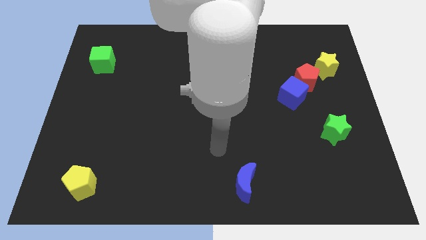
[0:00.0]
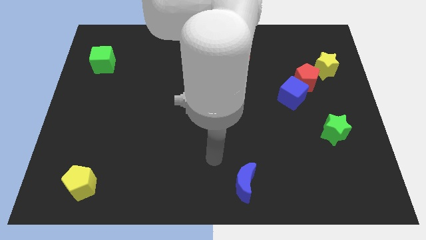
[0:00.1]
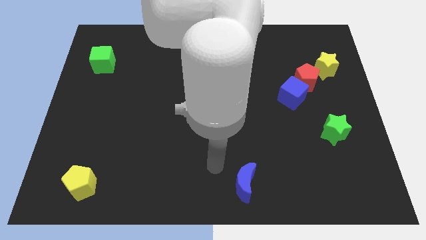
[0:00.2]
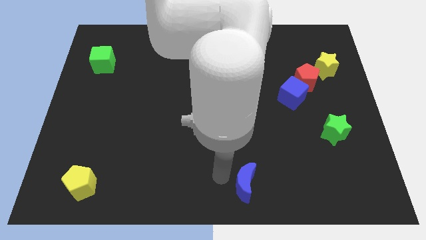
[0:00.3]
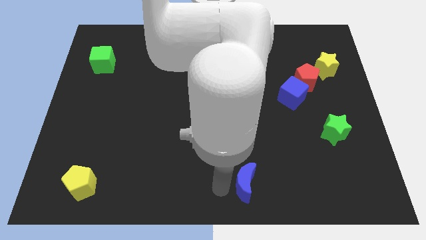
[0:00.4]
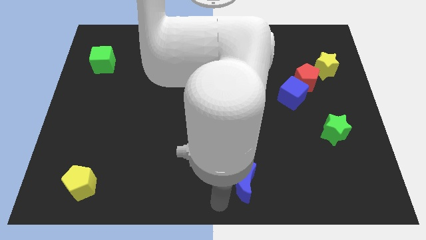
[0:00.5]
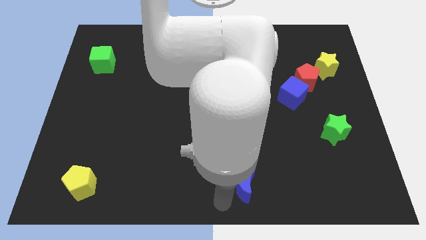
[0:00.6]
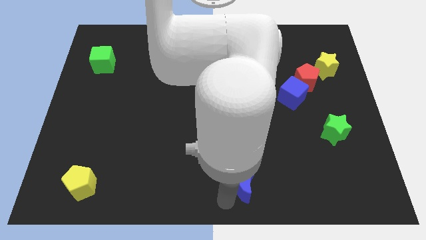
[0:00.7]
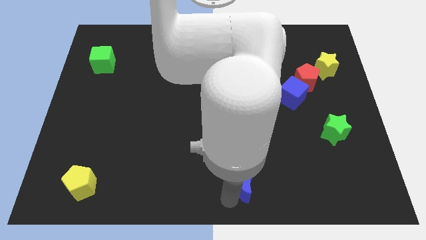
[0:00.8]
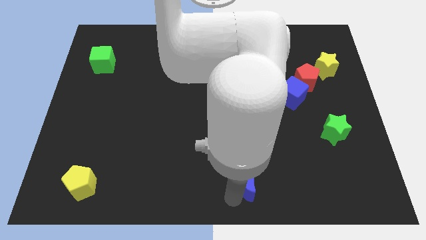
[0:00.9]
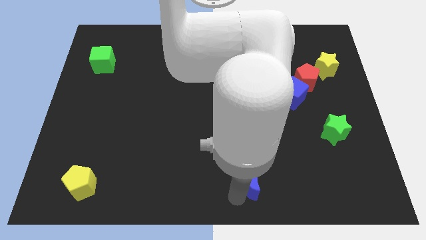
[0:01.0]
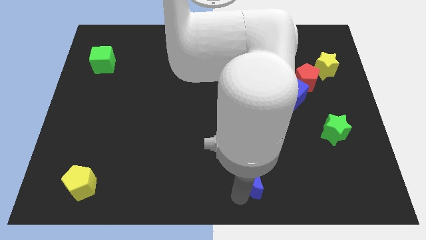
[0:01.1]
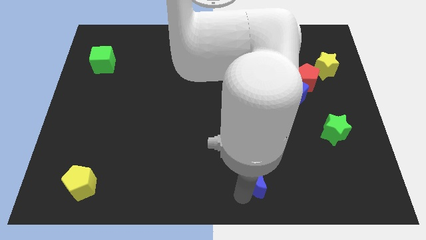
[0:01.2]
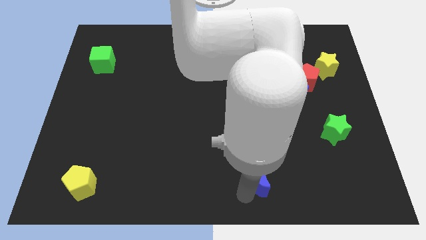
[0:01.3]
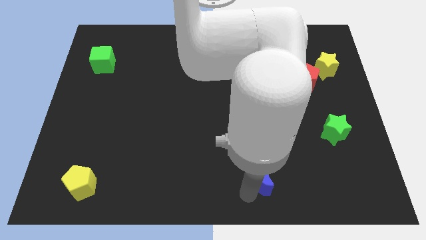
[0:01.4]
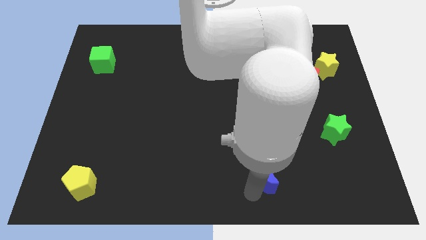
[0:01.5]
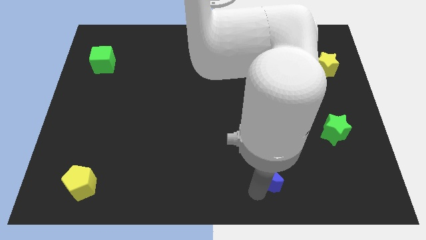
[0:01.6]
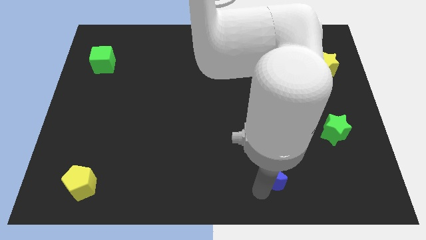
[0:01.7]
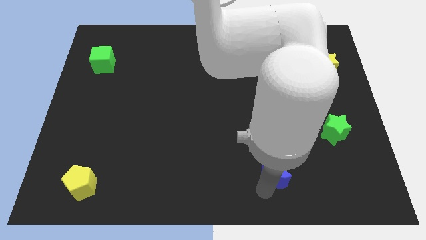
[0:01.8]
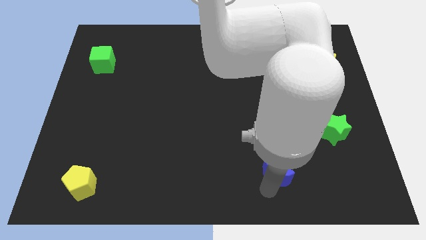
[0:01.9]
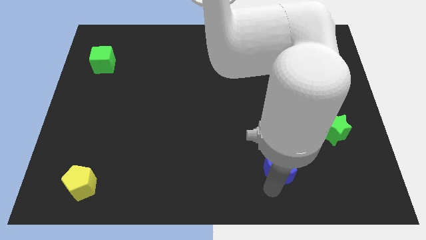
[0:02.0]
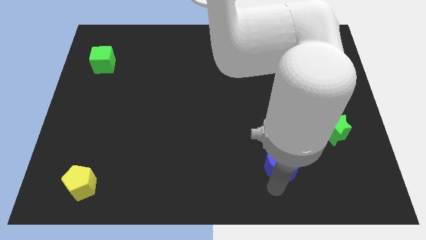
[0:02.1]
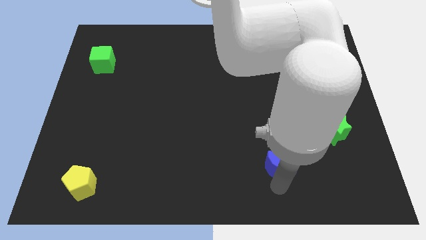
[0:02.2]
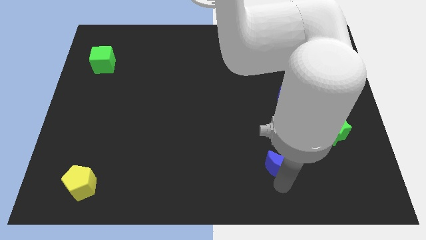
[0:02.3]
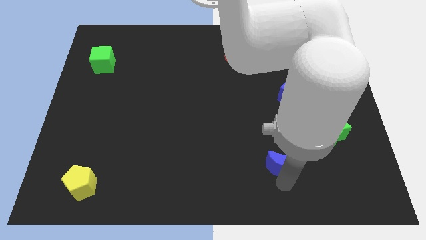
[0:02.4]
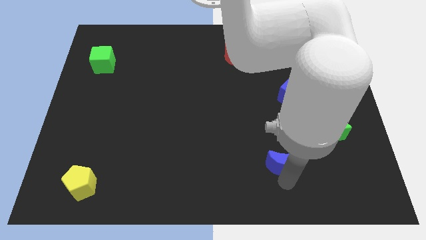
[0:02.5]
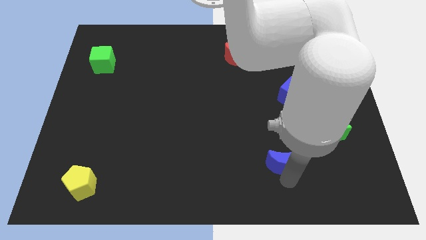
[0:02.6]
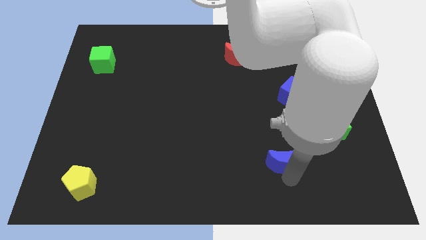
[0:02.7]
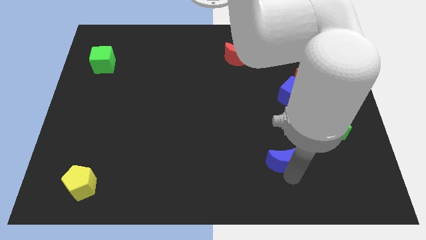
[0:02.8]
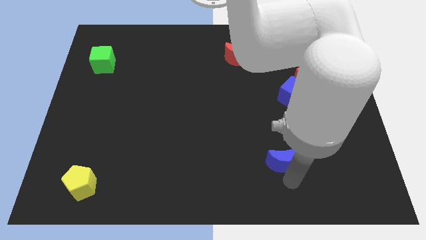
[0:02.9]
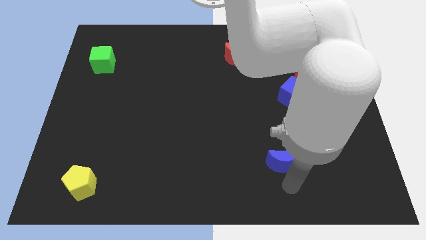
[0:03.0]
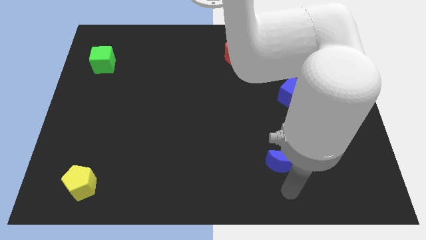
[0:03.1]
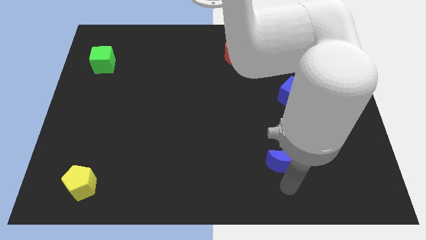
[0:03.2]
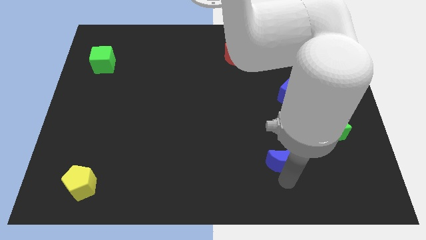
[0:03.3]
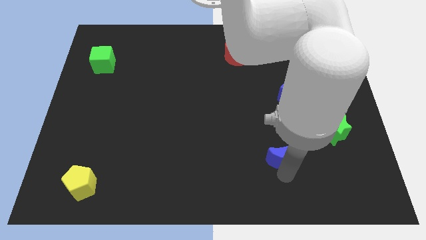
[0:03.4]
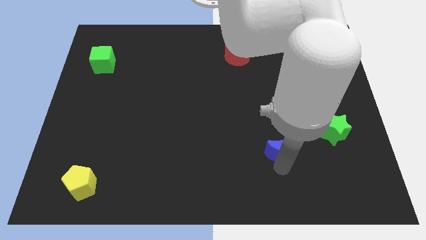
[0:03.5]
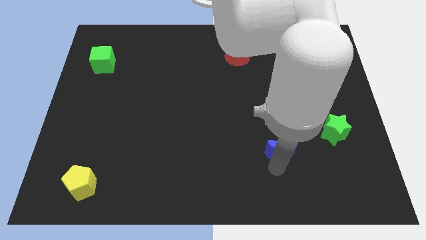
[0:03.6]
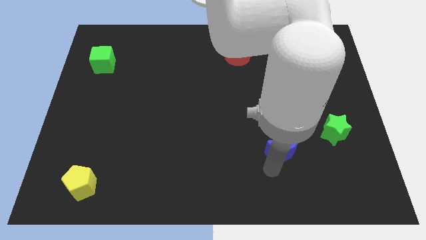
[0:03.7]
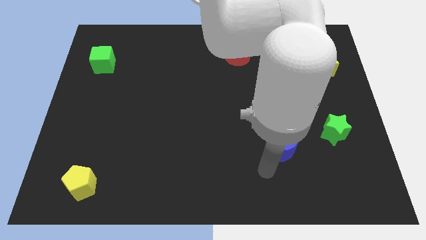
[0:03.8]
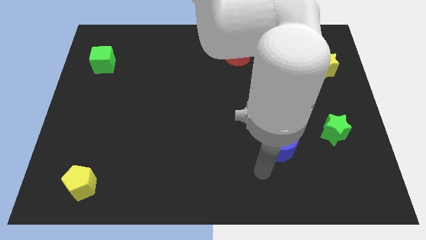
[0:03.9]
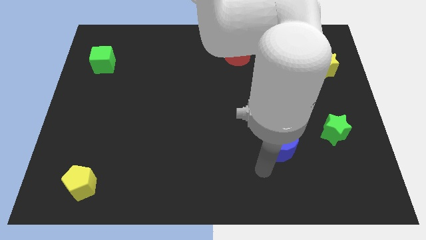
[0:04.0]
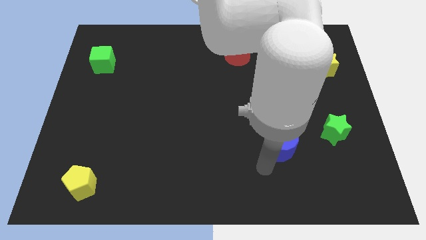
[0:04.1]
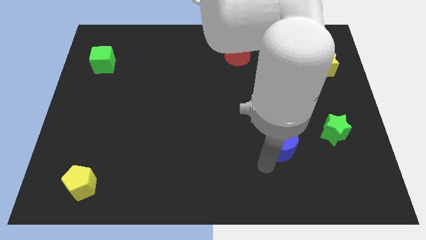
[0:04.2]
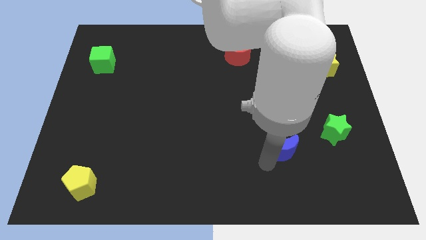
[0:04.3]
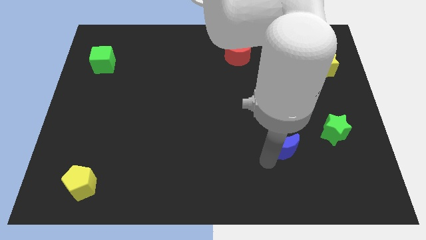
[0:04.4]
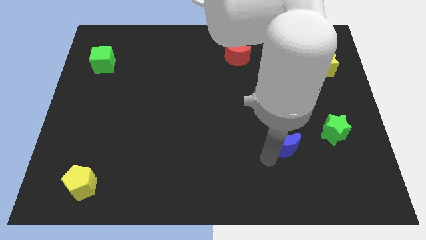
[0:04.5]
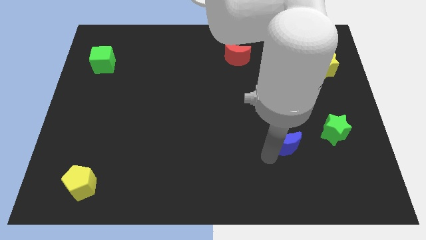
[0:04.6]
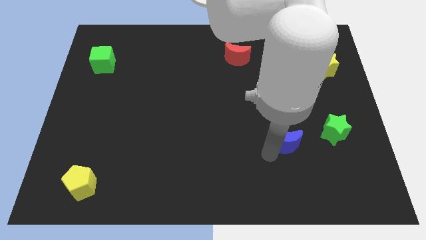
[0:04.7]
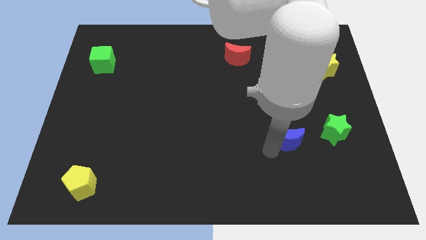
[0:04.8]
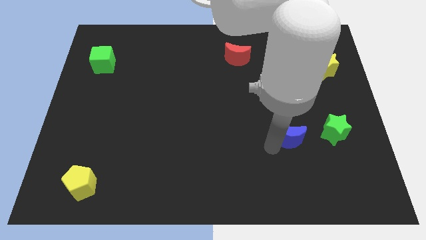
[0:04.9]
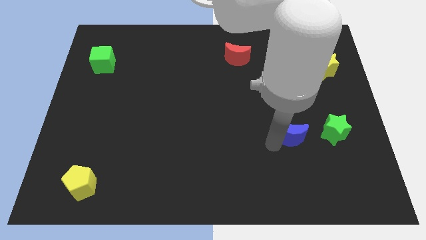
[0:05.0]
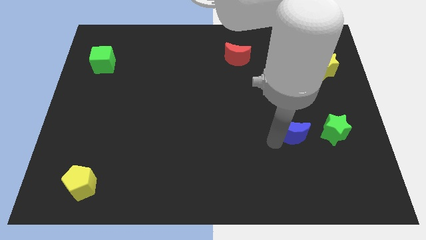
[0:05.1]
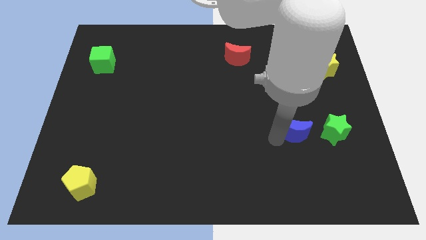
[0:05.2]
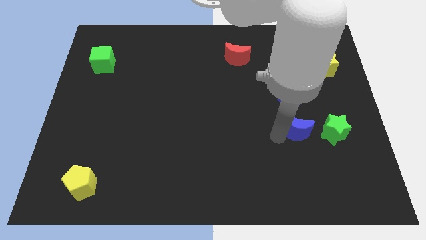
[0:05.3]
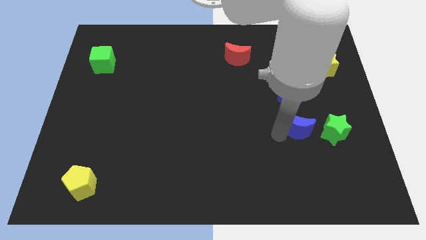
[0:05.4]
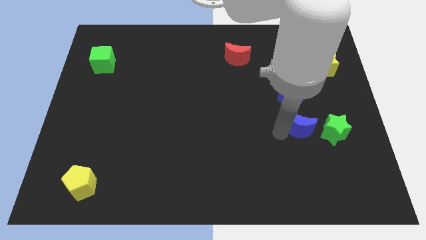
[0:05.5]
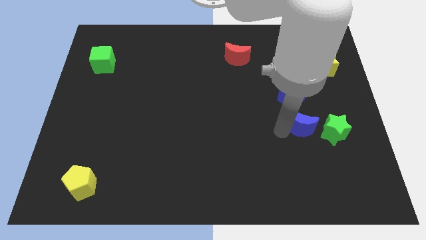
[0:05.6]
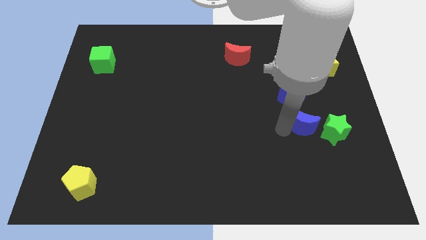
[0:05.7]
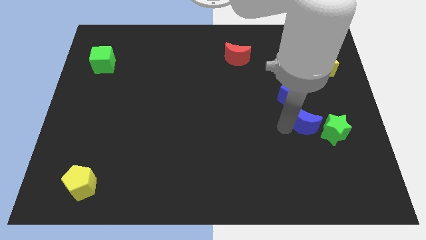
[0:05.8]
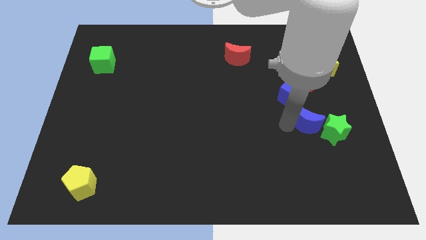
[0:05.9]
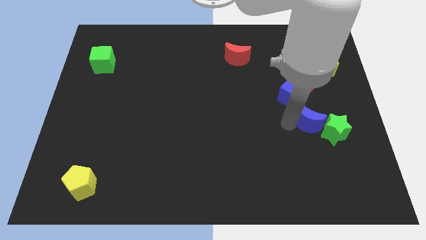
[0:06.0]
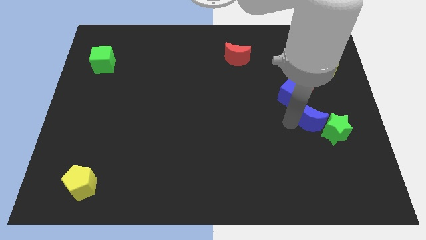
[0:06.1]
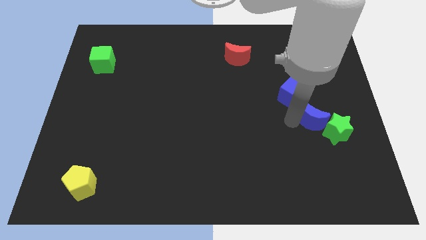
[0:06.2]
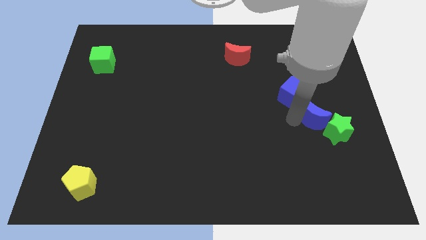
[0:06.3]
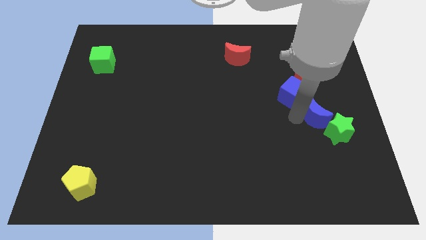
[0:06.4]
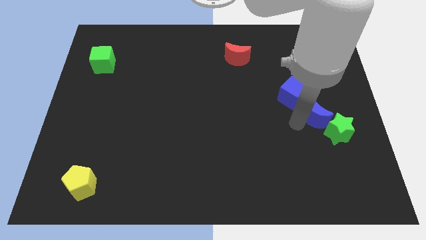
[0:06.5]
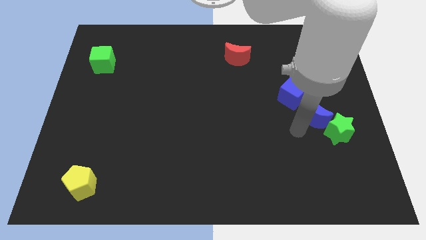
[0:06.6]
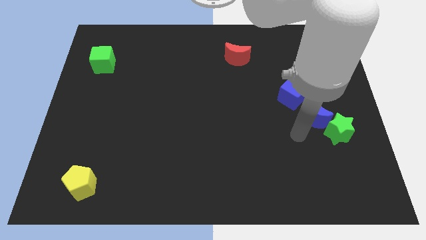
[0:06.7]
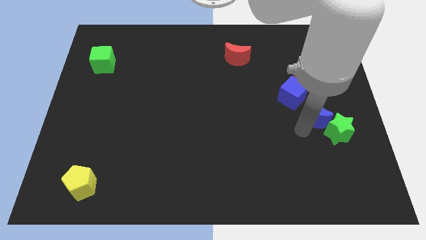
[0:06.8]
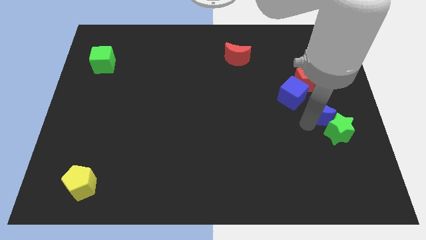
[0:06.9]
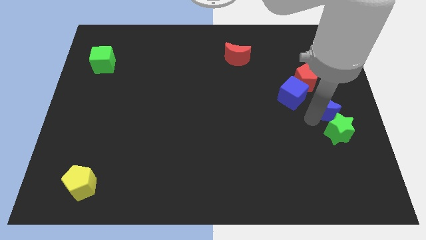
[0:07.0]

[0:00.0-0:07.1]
move the blue moon diagonally down and to the right of the red pentagon
